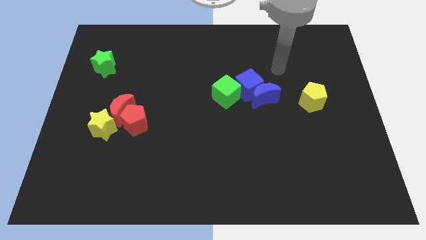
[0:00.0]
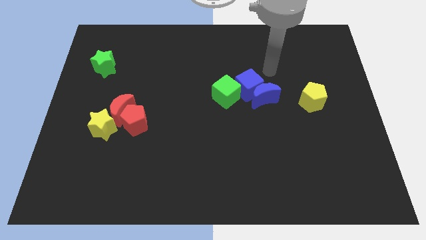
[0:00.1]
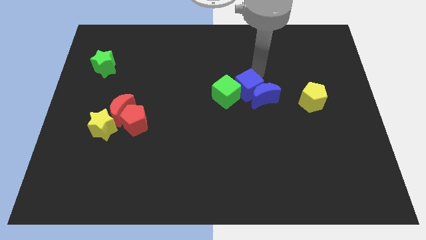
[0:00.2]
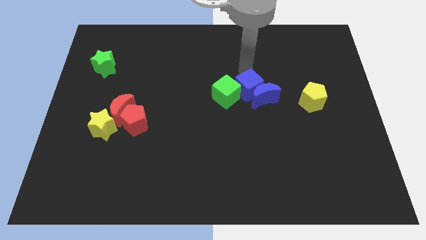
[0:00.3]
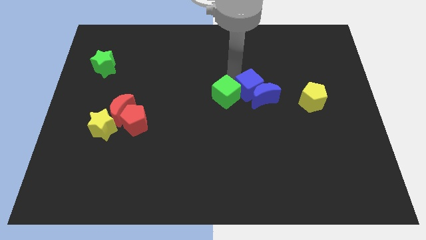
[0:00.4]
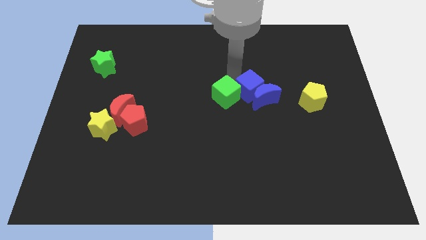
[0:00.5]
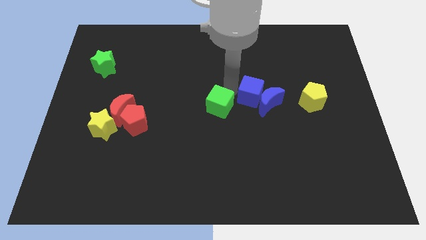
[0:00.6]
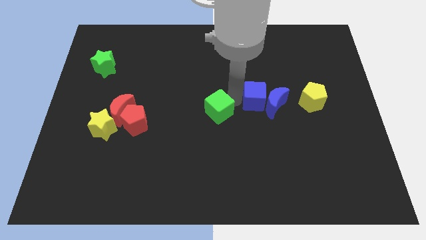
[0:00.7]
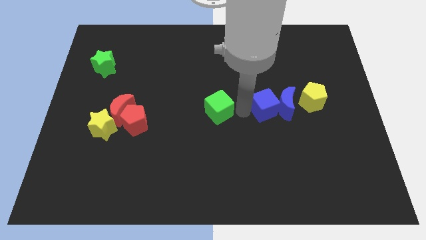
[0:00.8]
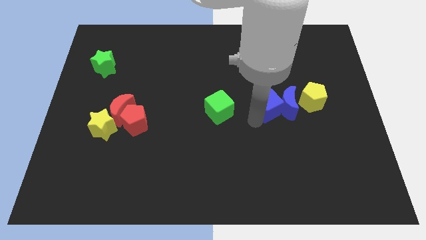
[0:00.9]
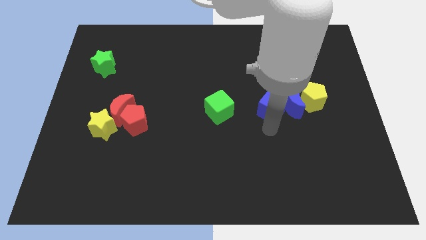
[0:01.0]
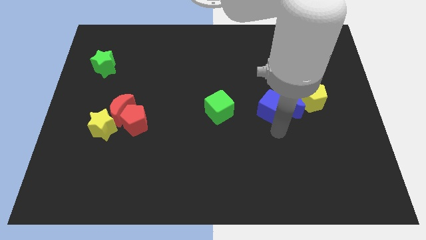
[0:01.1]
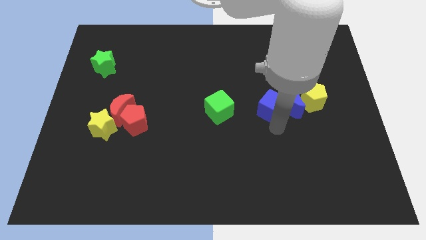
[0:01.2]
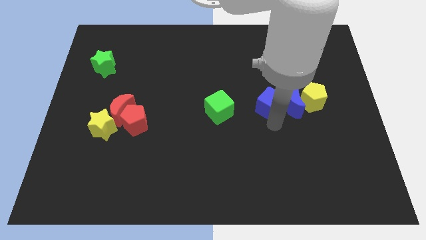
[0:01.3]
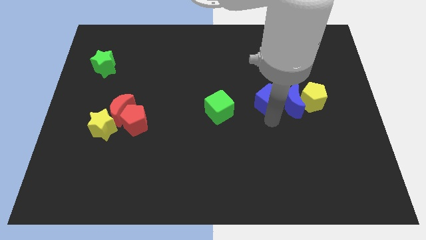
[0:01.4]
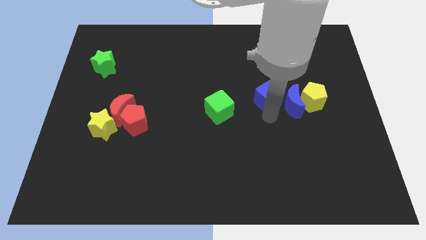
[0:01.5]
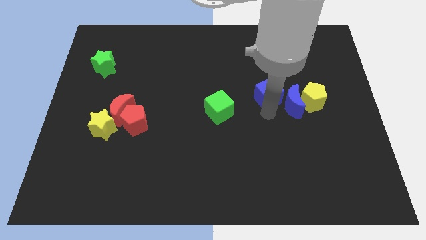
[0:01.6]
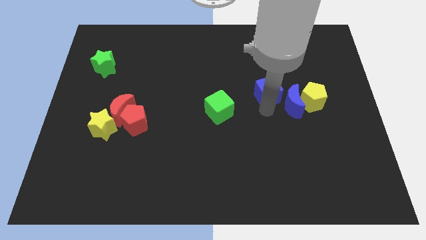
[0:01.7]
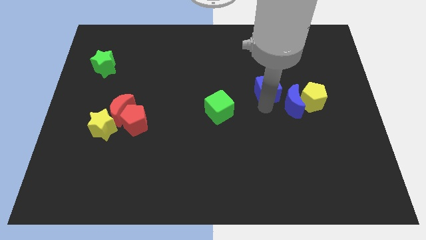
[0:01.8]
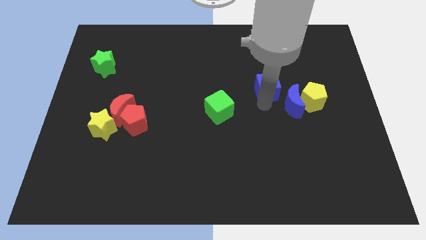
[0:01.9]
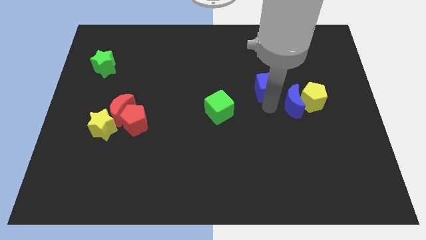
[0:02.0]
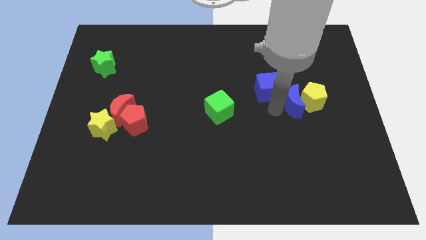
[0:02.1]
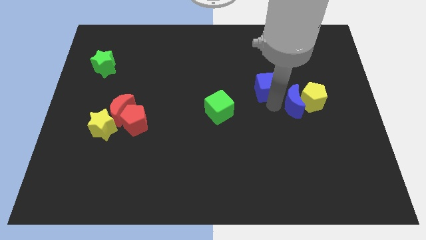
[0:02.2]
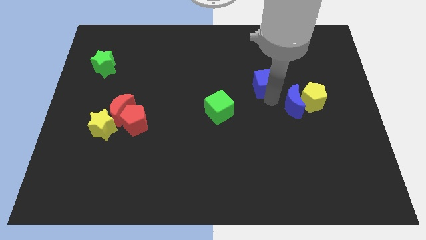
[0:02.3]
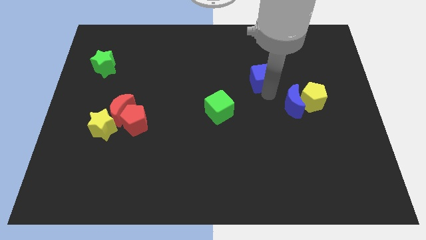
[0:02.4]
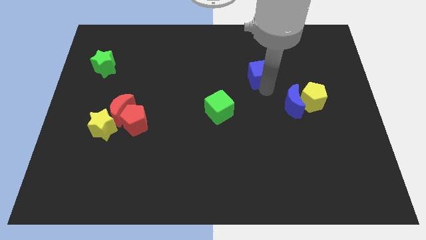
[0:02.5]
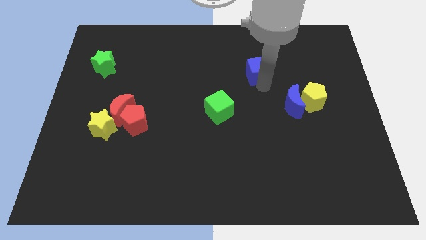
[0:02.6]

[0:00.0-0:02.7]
separate the blue cube from the blue moon and green cube

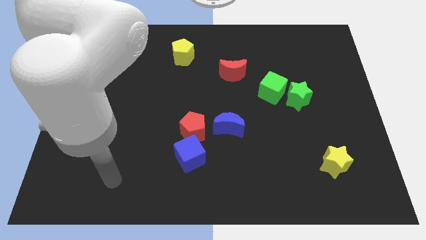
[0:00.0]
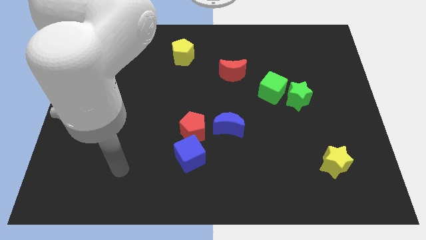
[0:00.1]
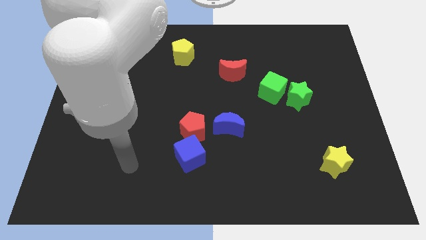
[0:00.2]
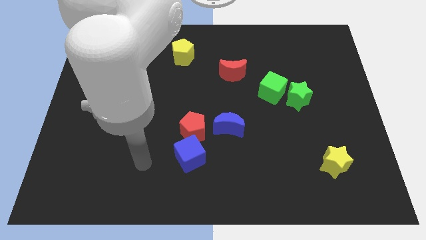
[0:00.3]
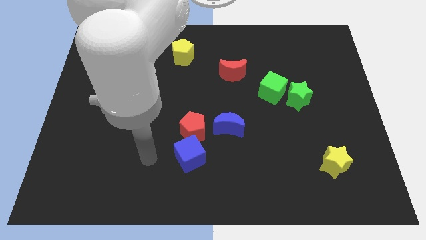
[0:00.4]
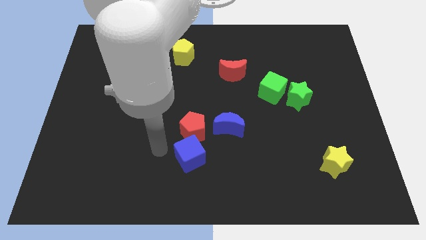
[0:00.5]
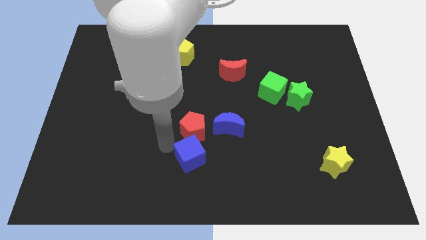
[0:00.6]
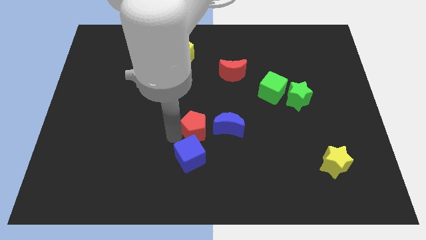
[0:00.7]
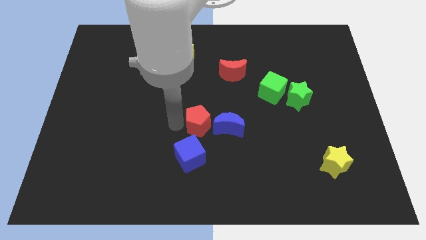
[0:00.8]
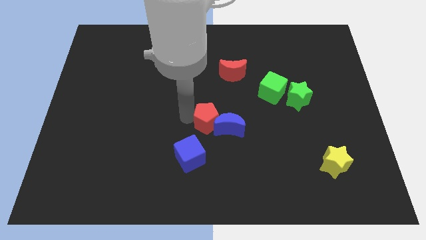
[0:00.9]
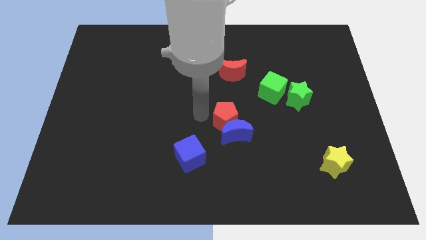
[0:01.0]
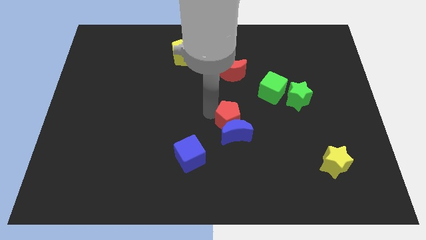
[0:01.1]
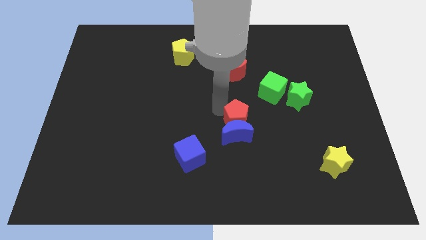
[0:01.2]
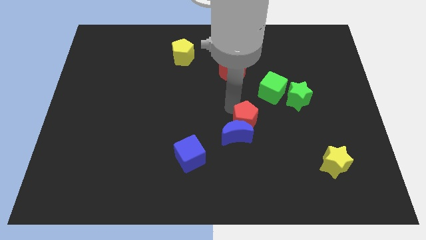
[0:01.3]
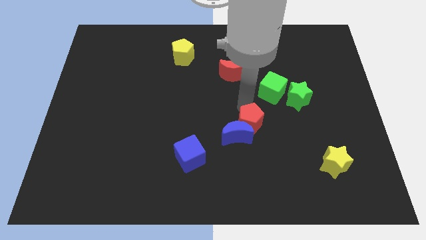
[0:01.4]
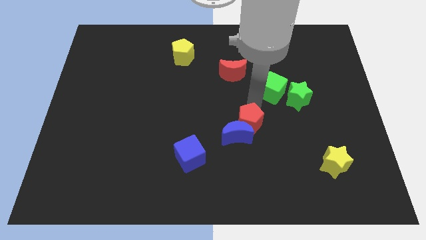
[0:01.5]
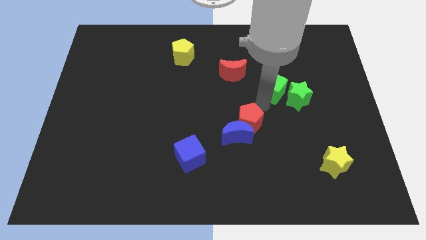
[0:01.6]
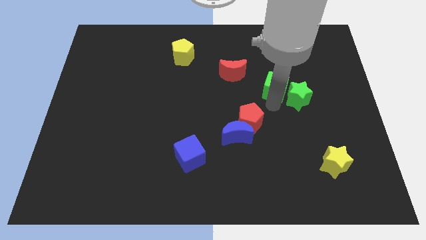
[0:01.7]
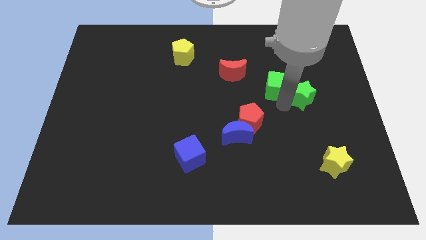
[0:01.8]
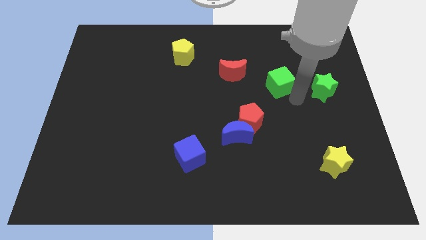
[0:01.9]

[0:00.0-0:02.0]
pull the green cube apart from the green star

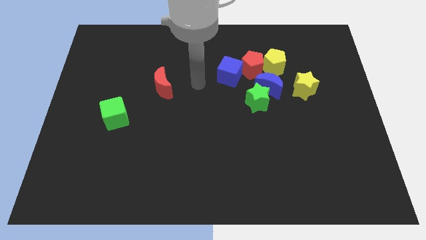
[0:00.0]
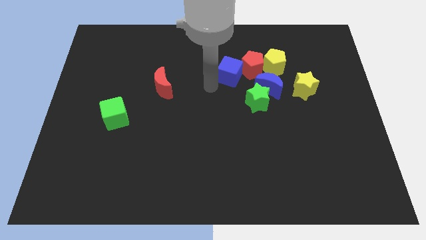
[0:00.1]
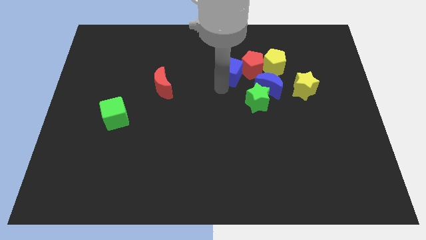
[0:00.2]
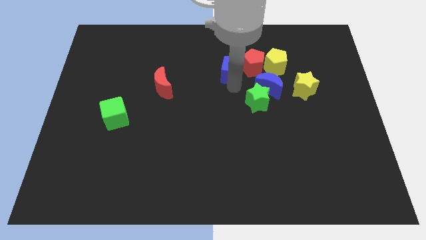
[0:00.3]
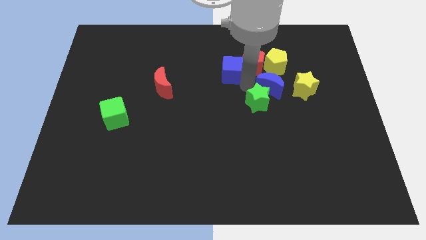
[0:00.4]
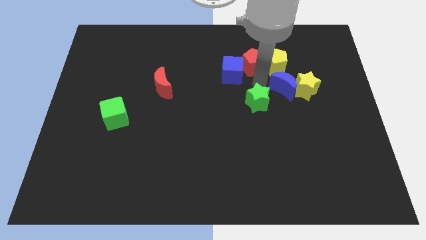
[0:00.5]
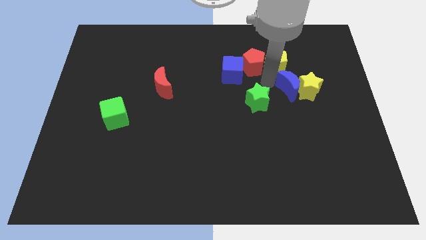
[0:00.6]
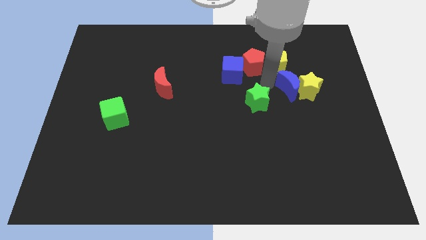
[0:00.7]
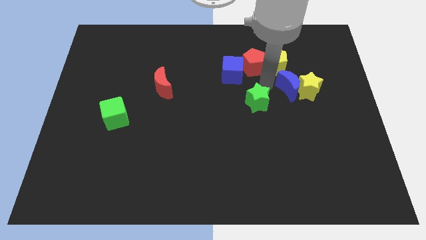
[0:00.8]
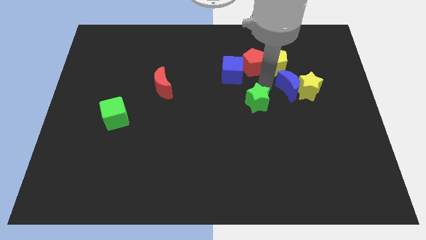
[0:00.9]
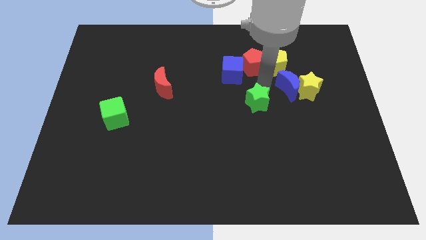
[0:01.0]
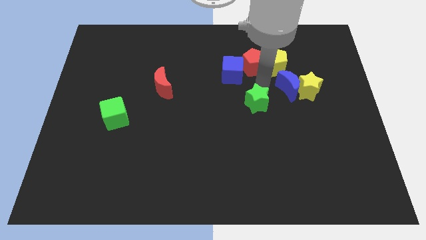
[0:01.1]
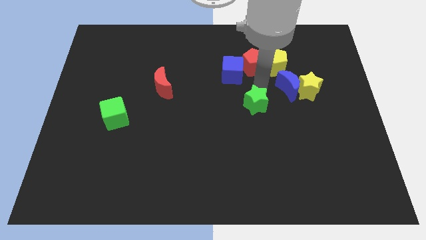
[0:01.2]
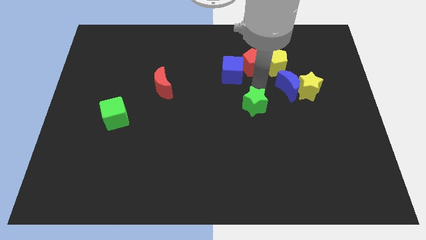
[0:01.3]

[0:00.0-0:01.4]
separate the green star from the blue moon

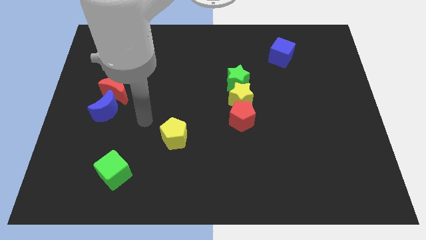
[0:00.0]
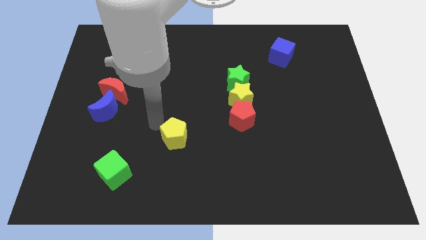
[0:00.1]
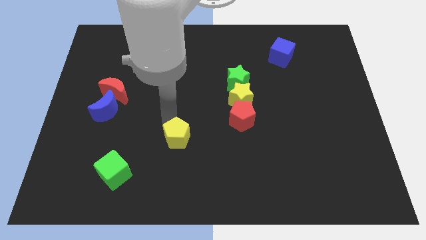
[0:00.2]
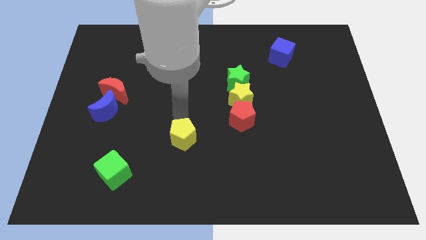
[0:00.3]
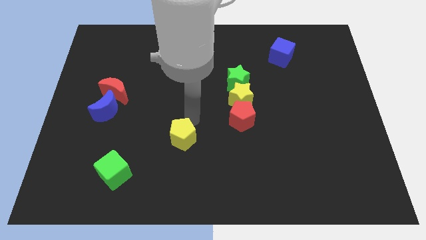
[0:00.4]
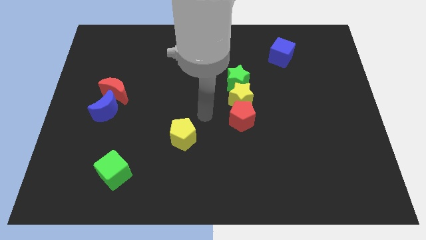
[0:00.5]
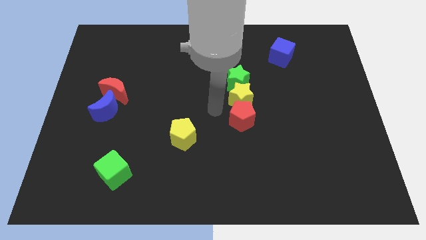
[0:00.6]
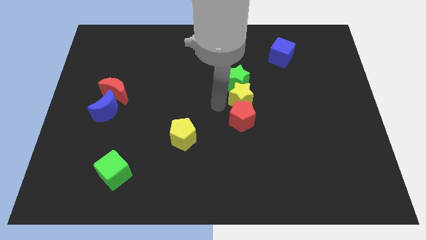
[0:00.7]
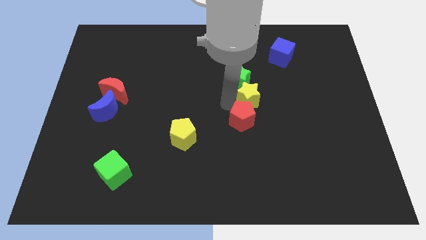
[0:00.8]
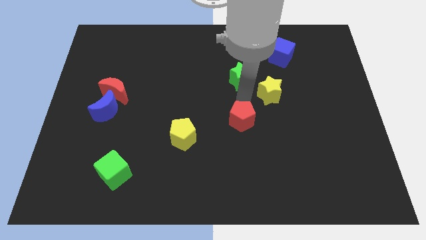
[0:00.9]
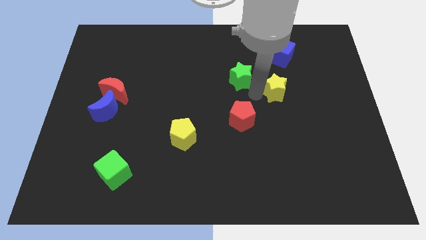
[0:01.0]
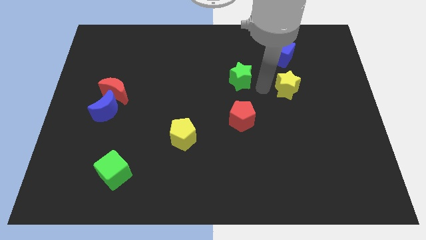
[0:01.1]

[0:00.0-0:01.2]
move the green star away from the yellow star

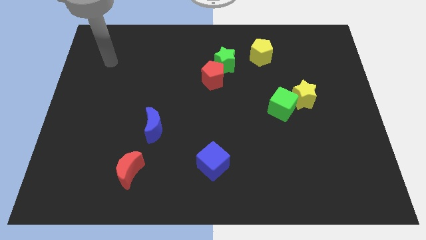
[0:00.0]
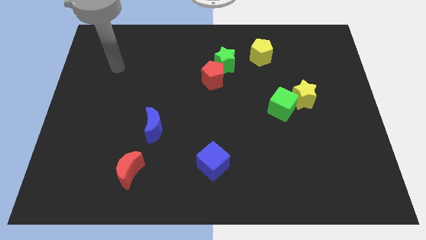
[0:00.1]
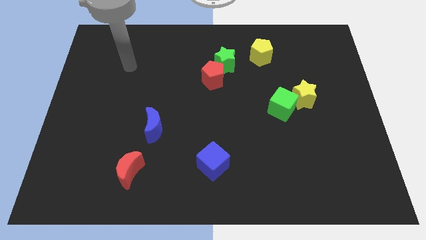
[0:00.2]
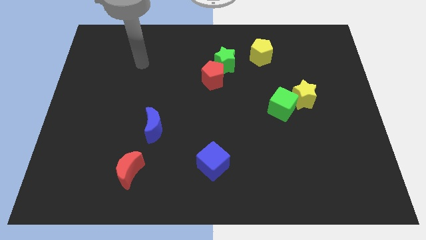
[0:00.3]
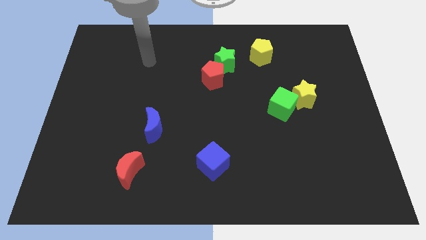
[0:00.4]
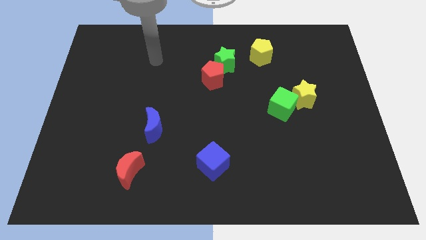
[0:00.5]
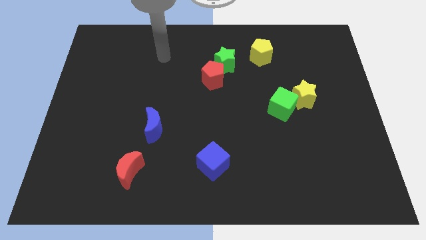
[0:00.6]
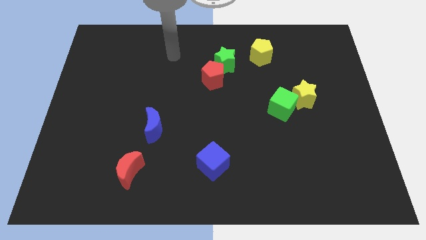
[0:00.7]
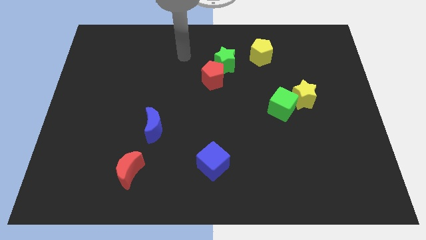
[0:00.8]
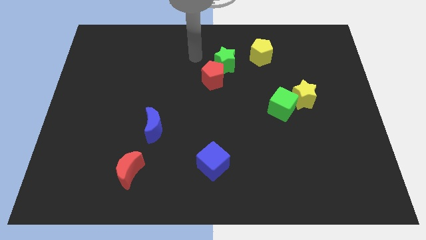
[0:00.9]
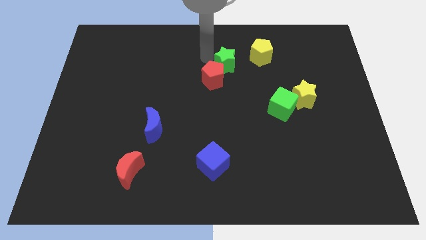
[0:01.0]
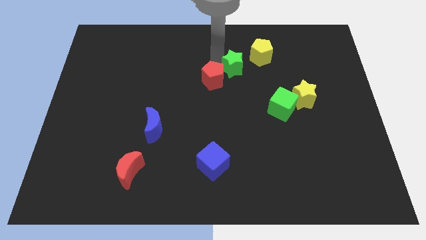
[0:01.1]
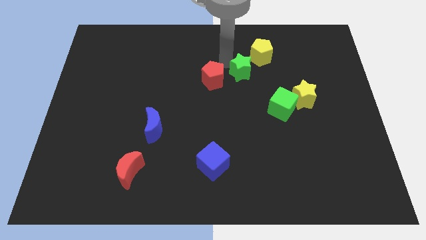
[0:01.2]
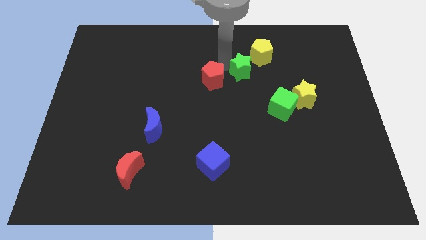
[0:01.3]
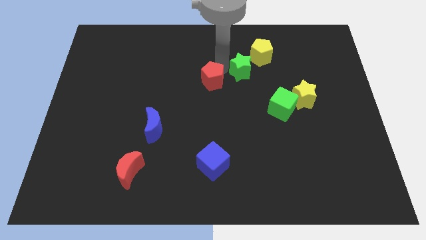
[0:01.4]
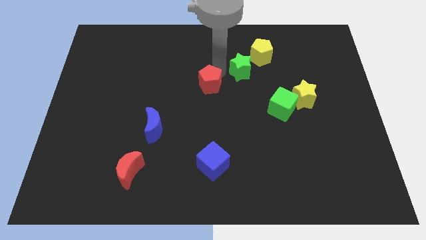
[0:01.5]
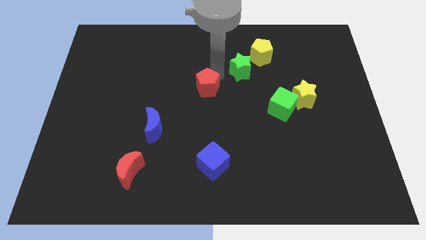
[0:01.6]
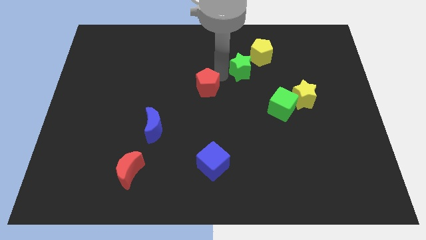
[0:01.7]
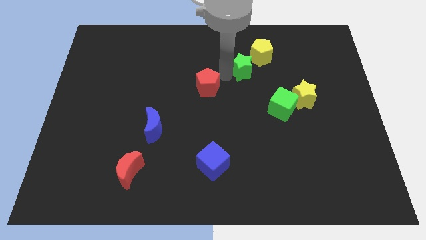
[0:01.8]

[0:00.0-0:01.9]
move the red pentagon away from the green star

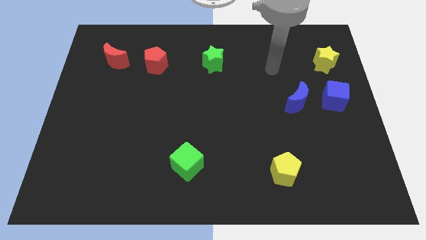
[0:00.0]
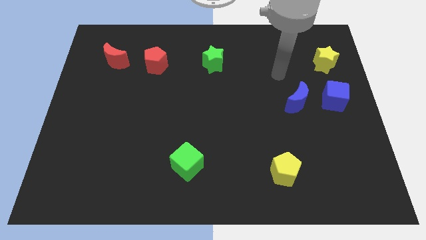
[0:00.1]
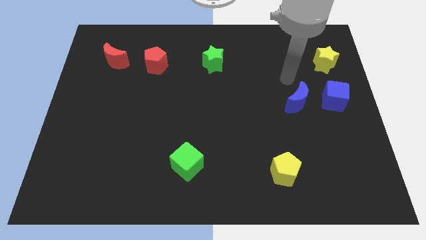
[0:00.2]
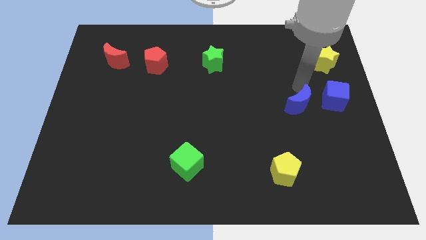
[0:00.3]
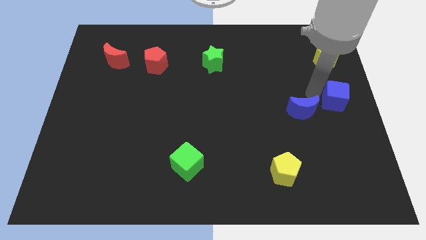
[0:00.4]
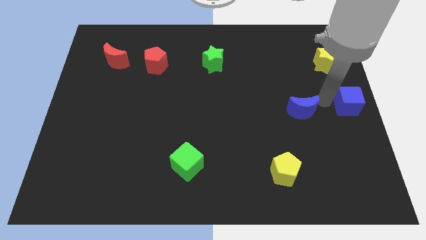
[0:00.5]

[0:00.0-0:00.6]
separate the blue moon from the blue cube
